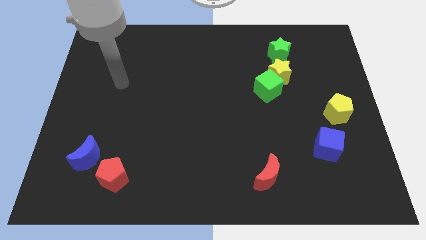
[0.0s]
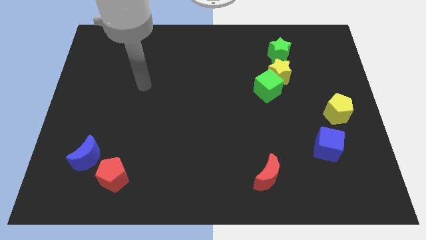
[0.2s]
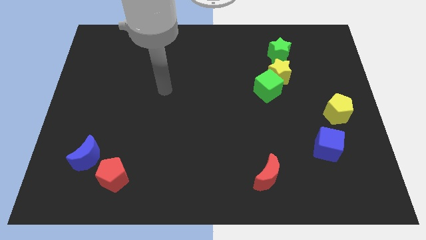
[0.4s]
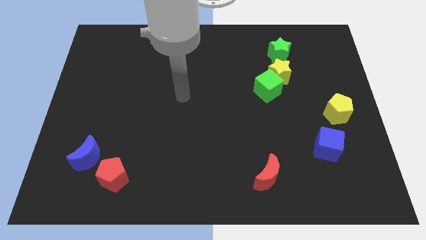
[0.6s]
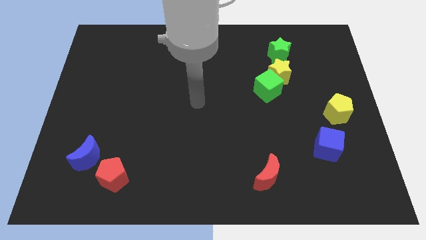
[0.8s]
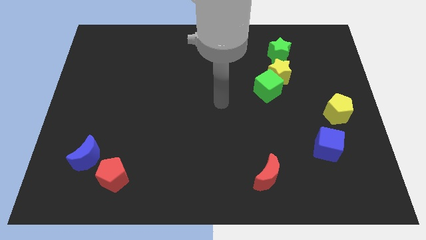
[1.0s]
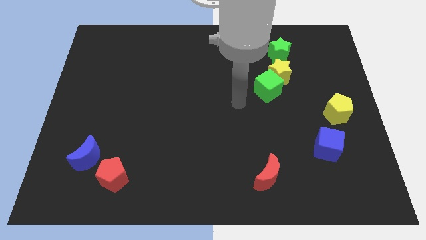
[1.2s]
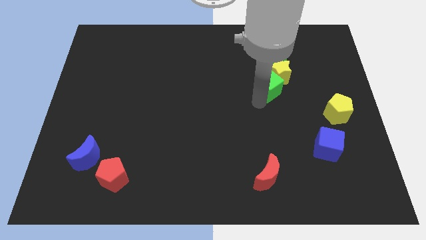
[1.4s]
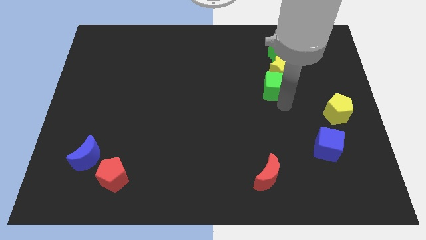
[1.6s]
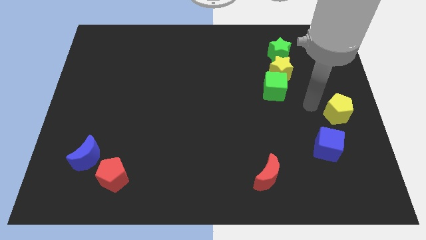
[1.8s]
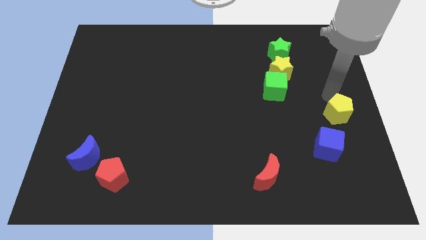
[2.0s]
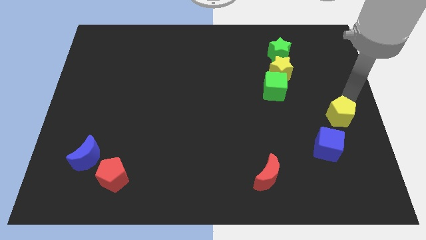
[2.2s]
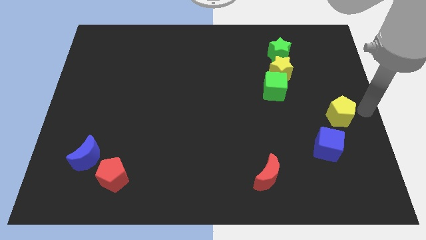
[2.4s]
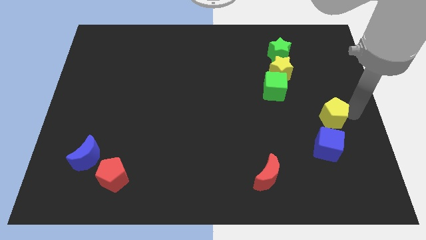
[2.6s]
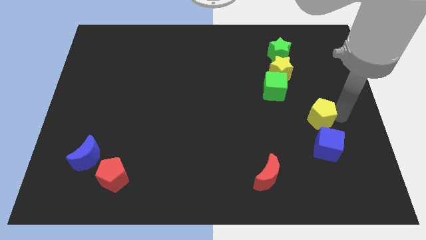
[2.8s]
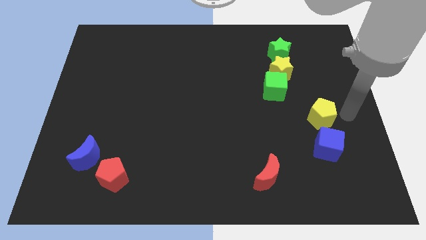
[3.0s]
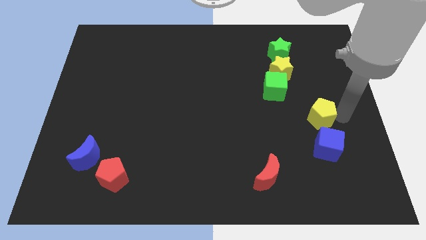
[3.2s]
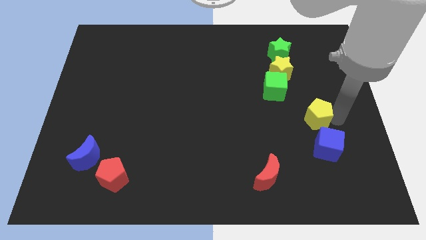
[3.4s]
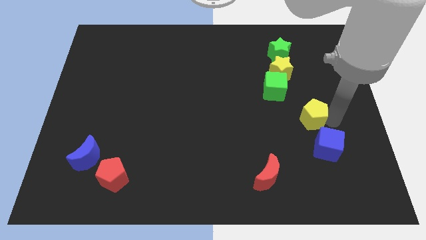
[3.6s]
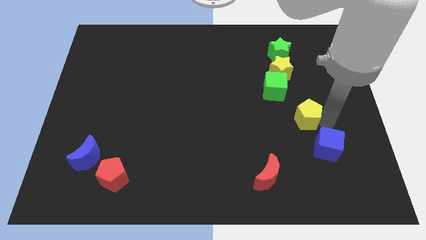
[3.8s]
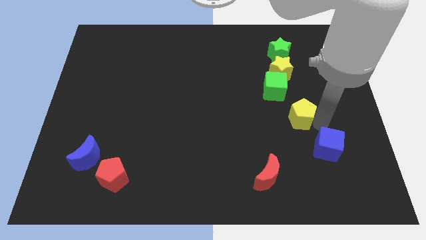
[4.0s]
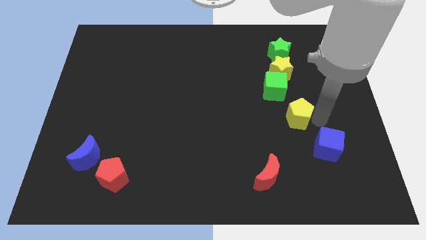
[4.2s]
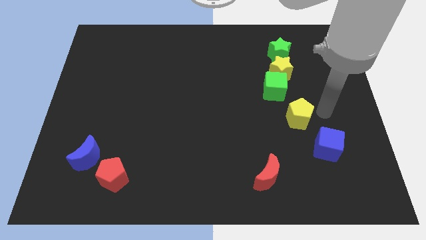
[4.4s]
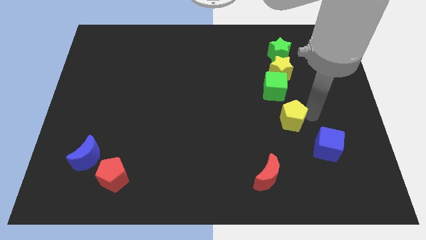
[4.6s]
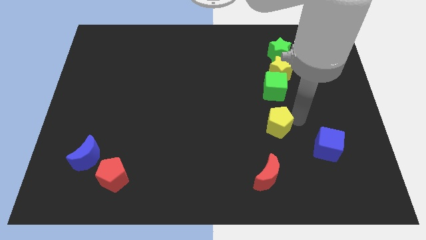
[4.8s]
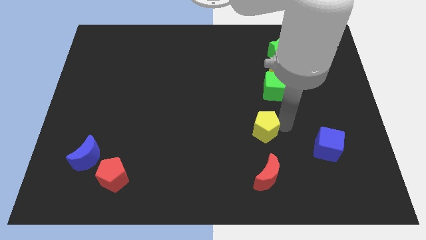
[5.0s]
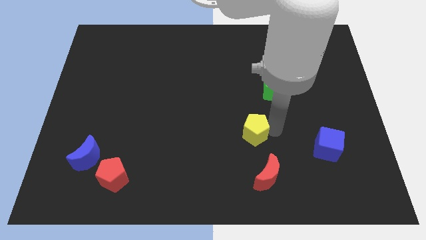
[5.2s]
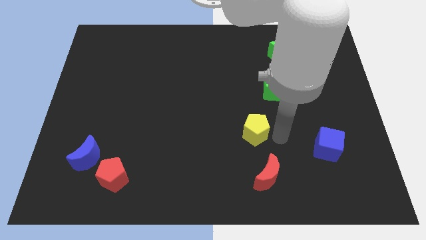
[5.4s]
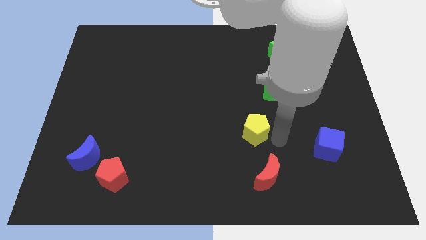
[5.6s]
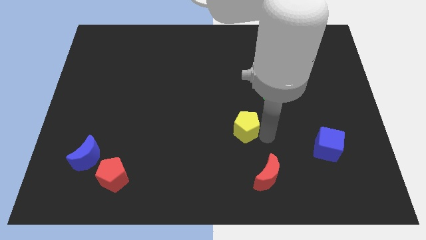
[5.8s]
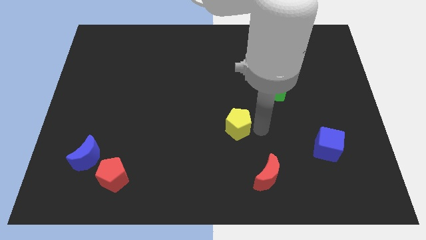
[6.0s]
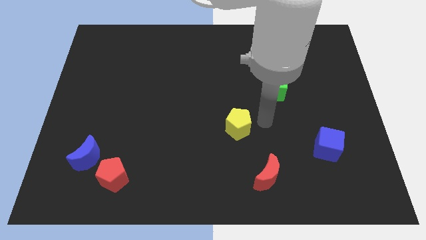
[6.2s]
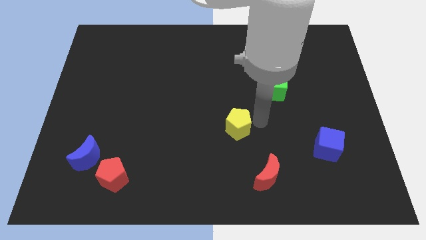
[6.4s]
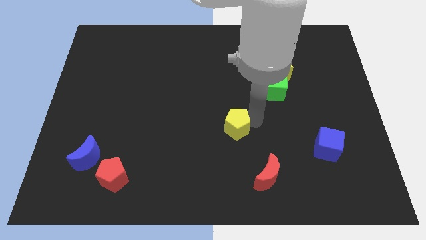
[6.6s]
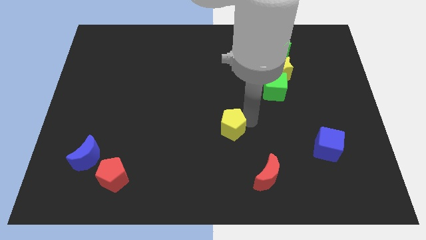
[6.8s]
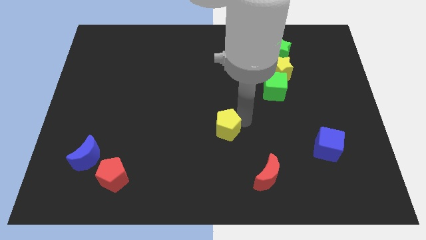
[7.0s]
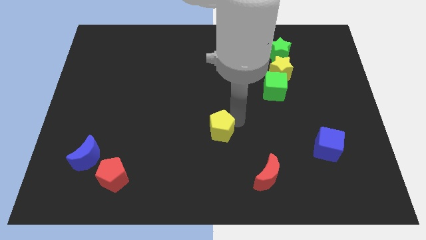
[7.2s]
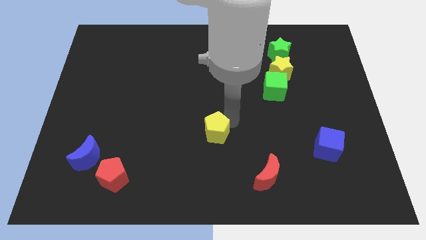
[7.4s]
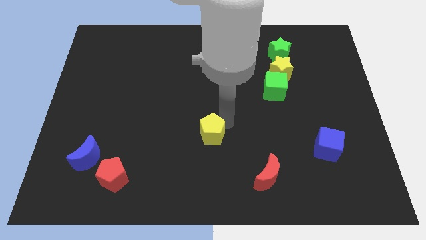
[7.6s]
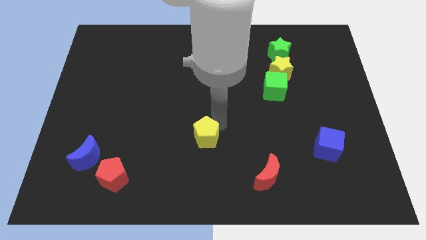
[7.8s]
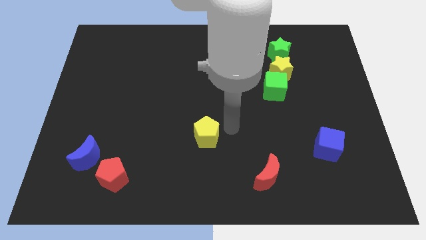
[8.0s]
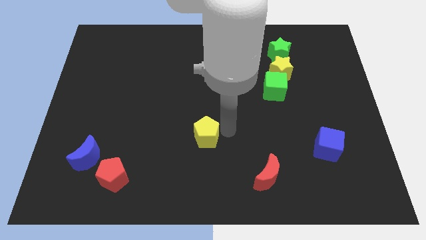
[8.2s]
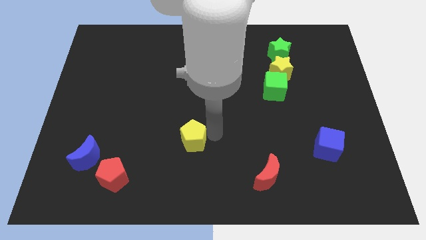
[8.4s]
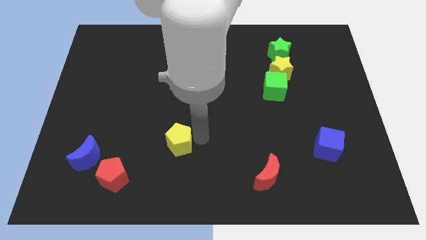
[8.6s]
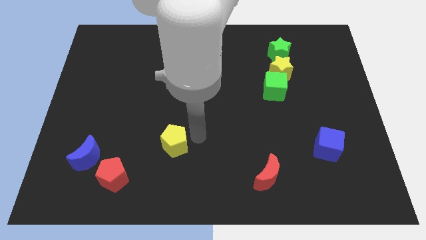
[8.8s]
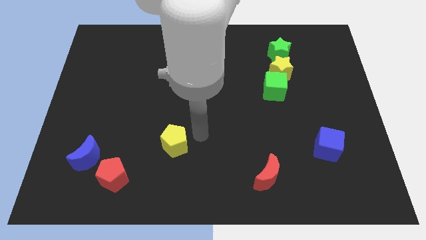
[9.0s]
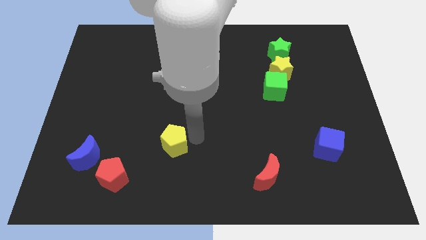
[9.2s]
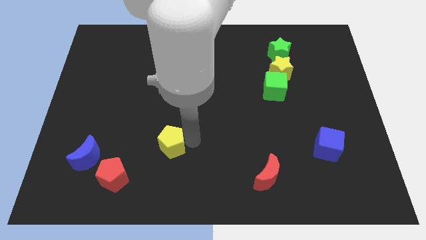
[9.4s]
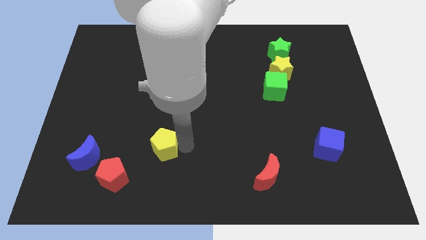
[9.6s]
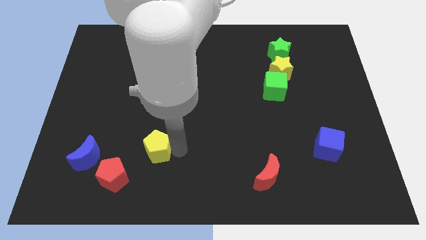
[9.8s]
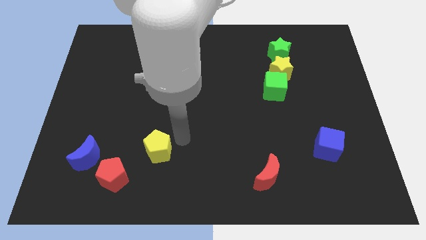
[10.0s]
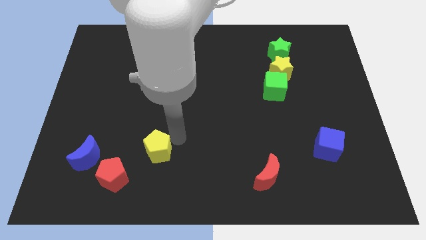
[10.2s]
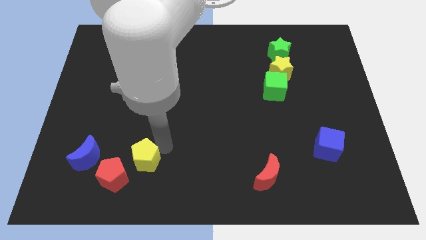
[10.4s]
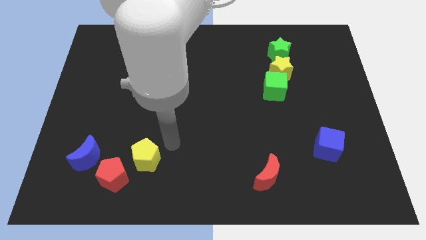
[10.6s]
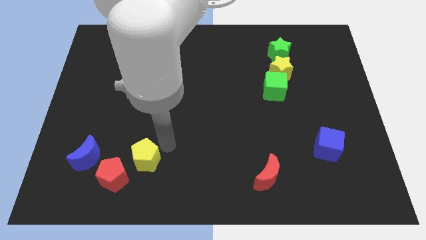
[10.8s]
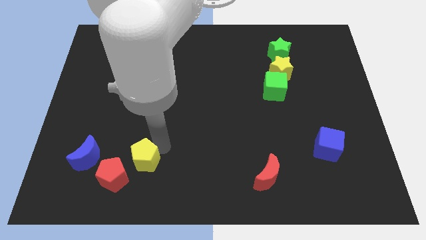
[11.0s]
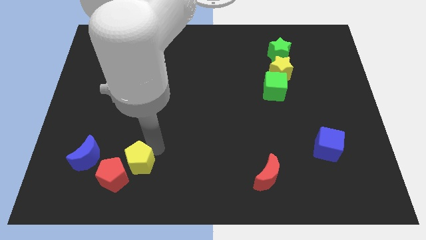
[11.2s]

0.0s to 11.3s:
push the yellow pentagon to the red pentagon

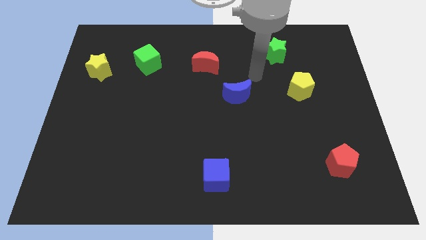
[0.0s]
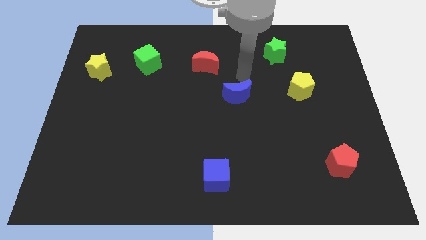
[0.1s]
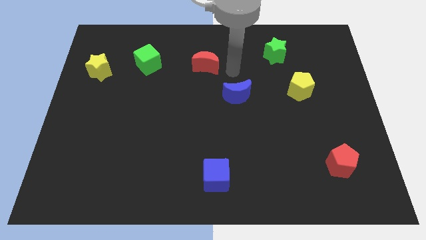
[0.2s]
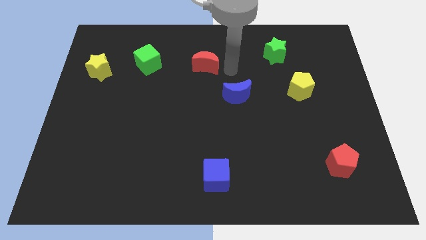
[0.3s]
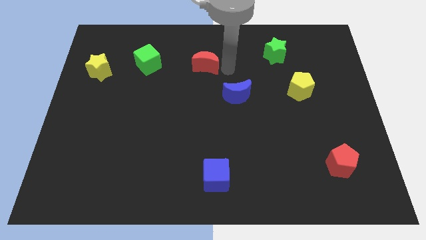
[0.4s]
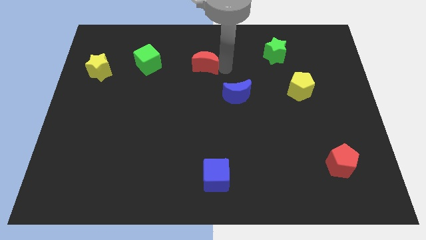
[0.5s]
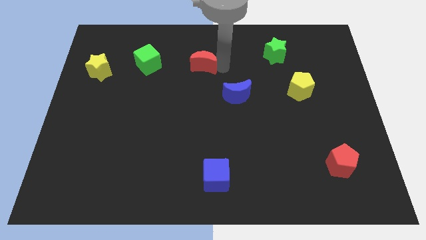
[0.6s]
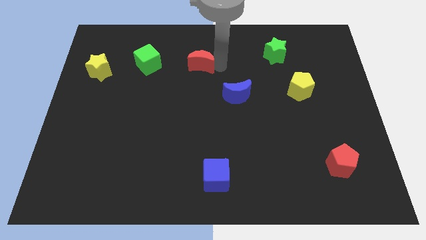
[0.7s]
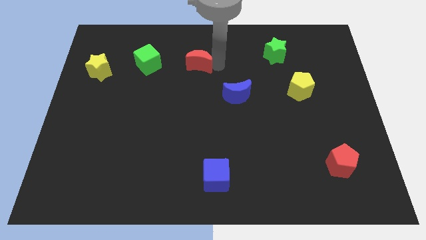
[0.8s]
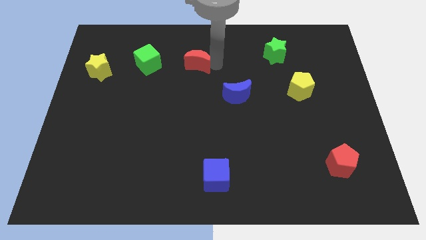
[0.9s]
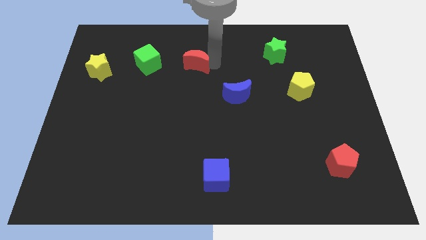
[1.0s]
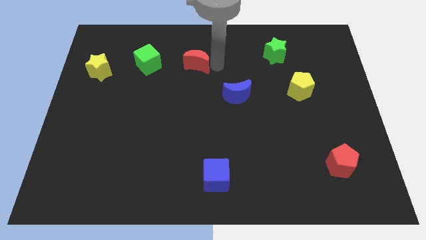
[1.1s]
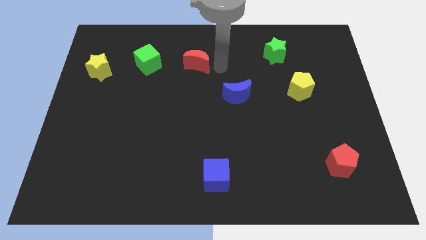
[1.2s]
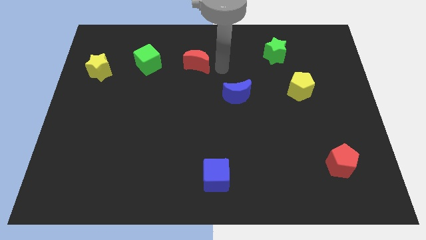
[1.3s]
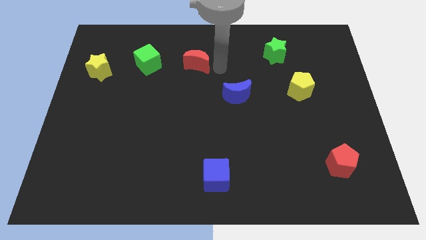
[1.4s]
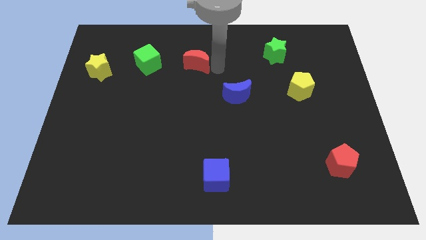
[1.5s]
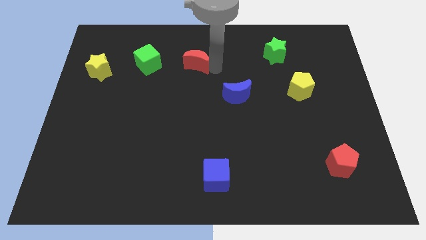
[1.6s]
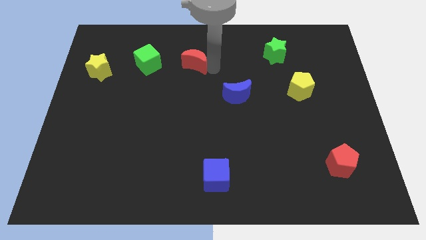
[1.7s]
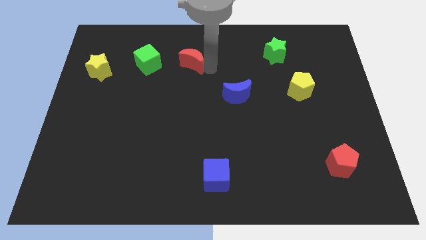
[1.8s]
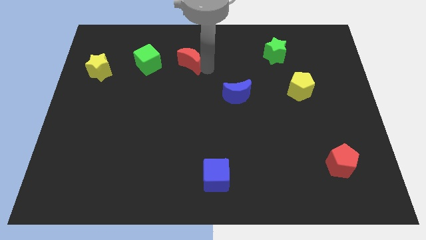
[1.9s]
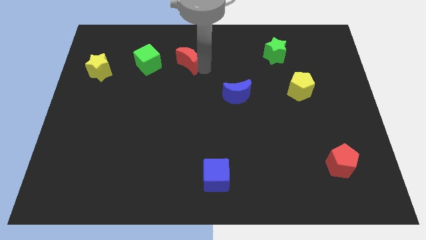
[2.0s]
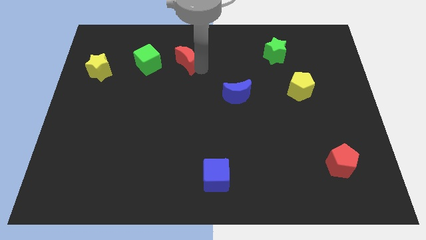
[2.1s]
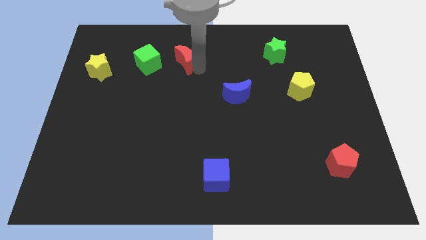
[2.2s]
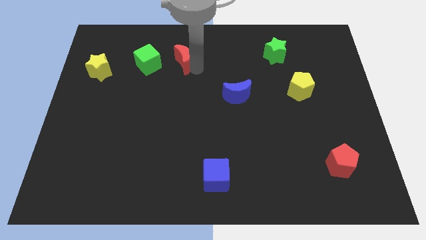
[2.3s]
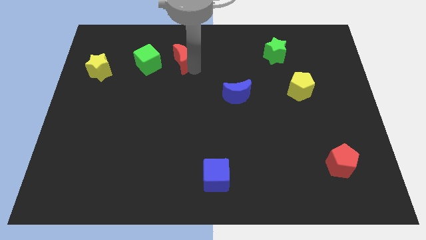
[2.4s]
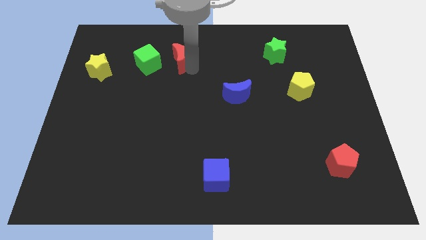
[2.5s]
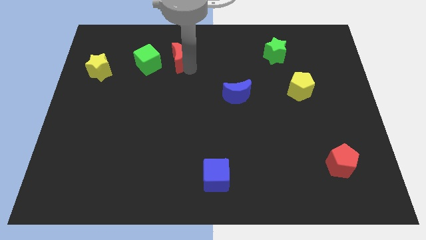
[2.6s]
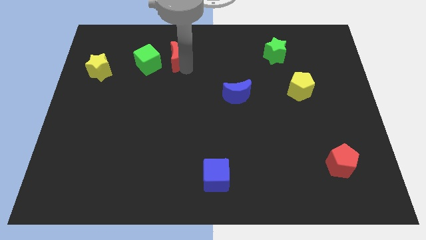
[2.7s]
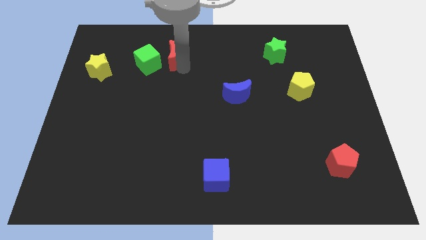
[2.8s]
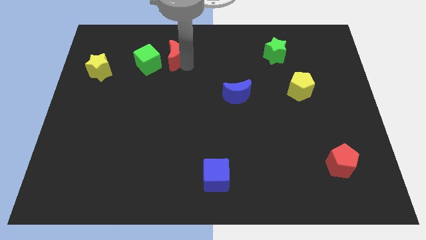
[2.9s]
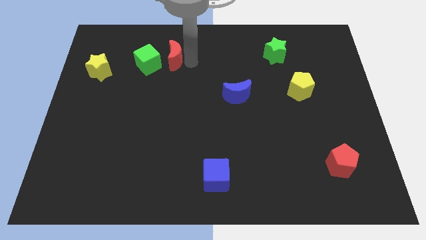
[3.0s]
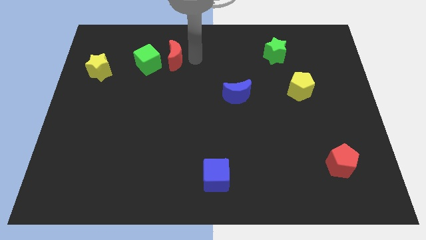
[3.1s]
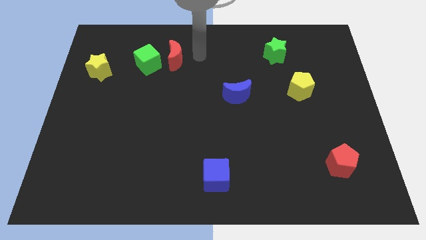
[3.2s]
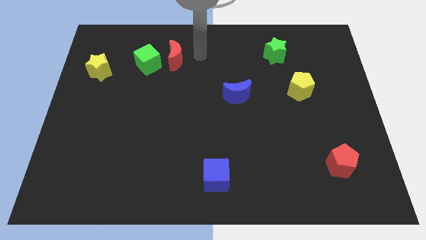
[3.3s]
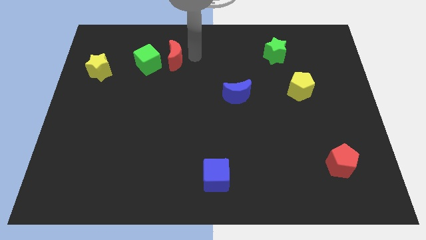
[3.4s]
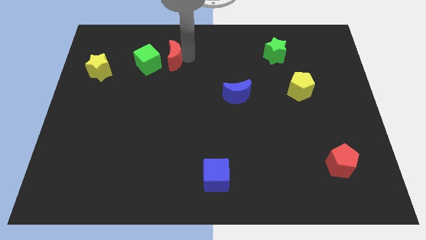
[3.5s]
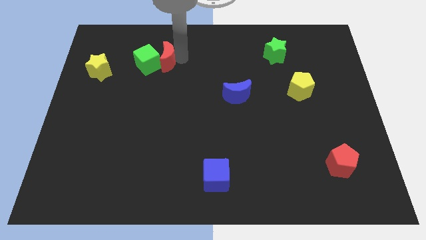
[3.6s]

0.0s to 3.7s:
slide the red moon to the green cube
